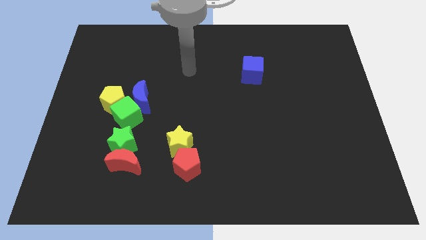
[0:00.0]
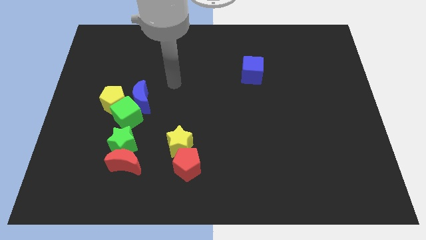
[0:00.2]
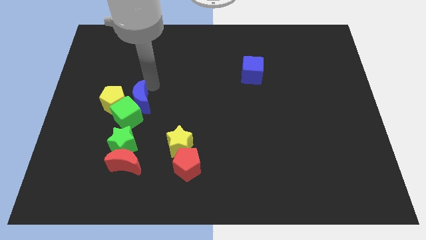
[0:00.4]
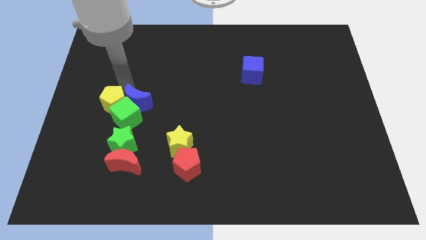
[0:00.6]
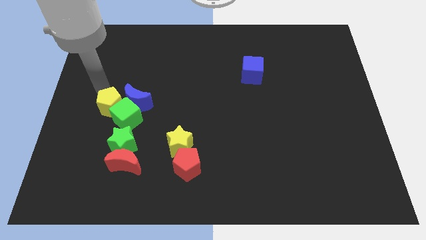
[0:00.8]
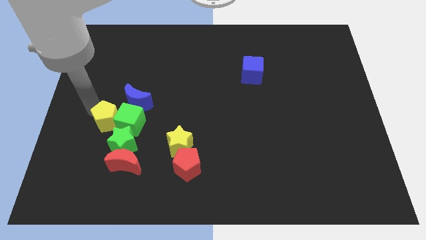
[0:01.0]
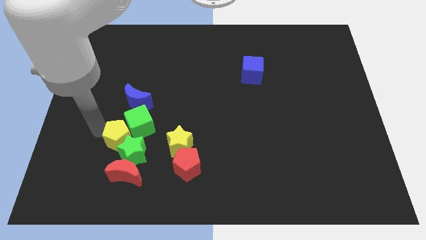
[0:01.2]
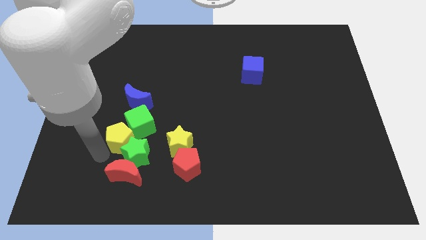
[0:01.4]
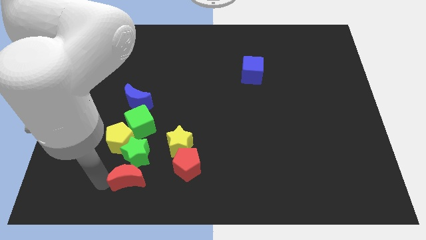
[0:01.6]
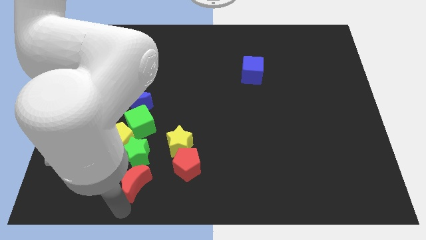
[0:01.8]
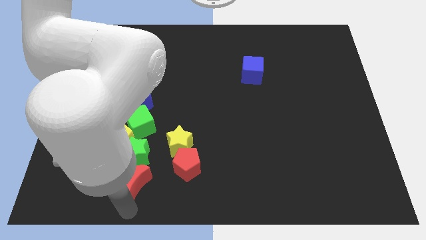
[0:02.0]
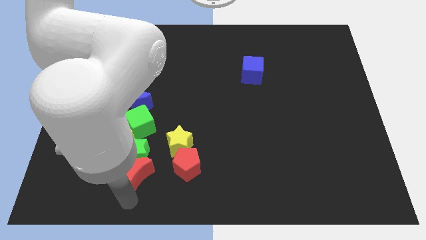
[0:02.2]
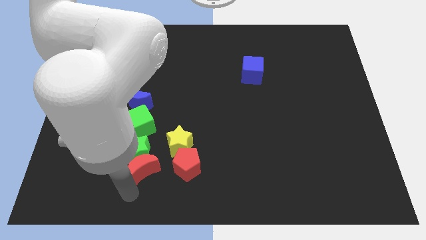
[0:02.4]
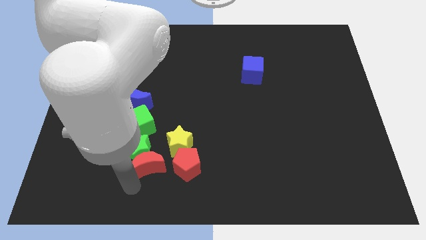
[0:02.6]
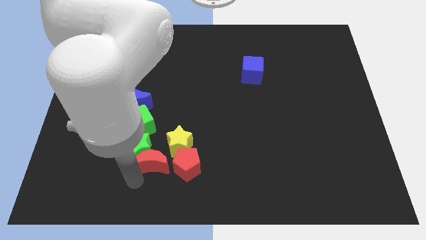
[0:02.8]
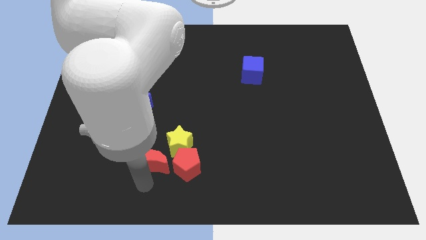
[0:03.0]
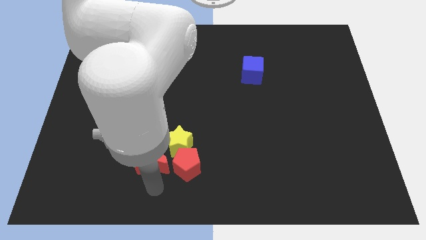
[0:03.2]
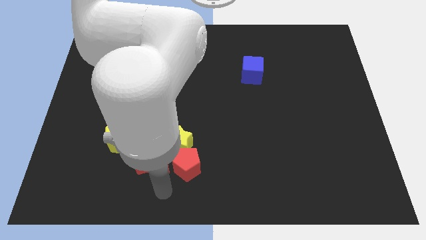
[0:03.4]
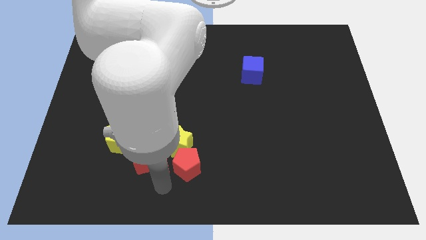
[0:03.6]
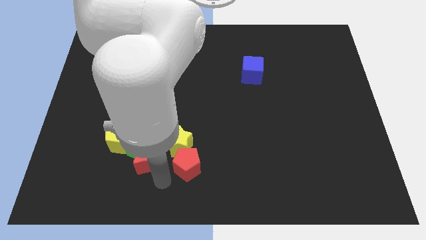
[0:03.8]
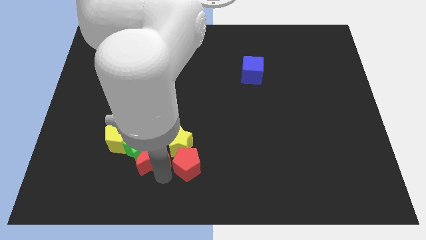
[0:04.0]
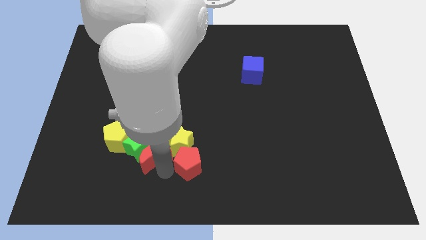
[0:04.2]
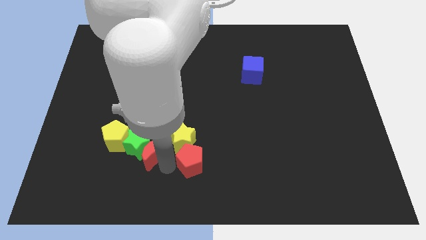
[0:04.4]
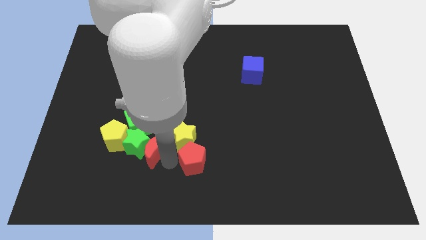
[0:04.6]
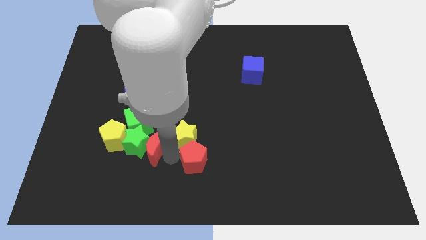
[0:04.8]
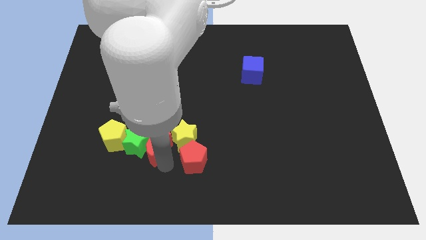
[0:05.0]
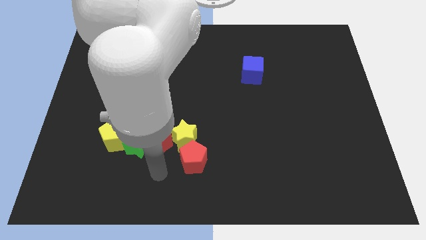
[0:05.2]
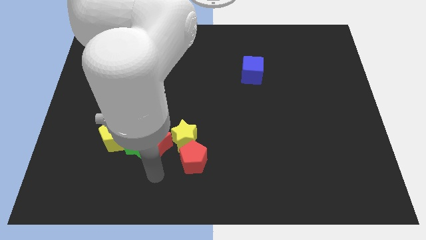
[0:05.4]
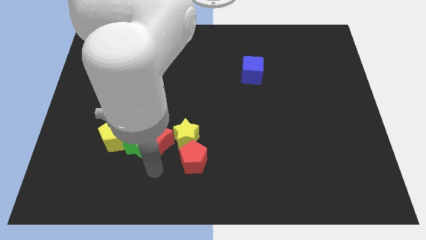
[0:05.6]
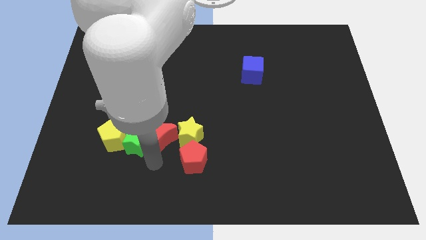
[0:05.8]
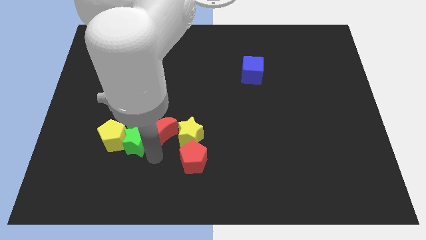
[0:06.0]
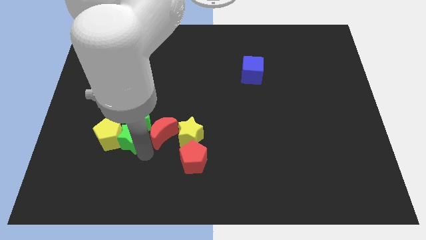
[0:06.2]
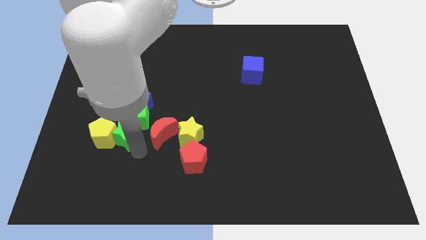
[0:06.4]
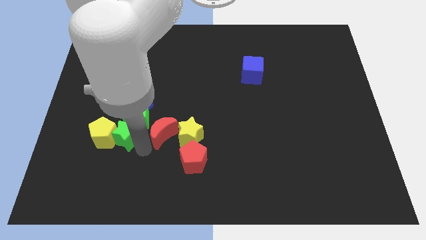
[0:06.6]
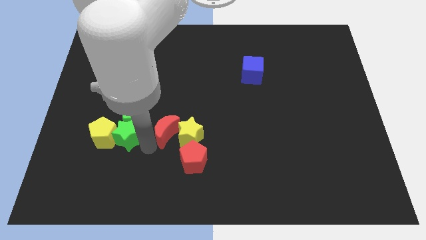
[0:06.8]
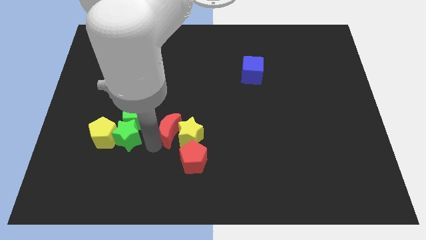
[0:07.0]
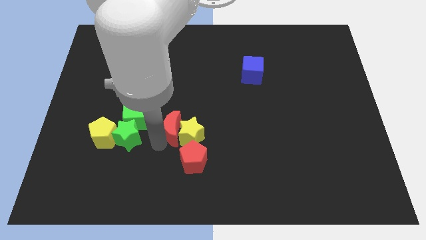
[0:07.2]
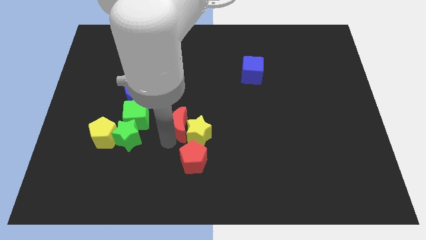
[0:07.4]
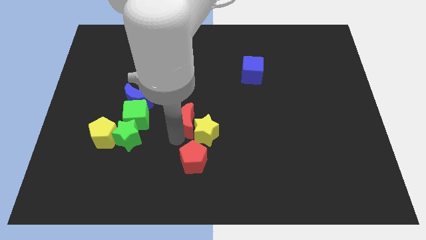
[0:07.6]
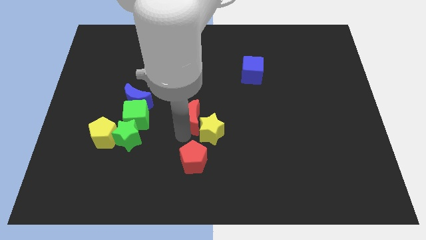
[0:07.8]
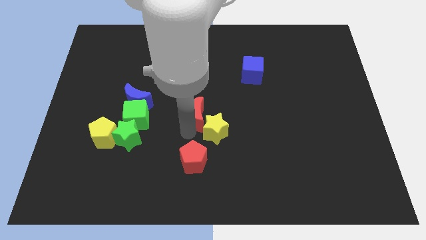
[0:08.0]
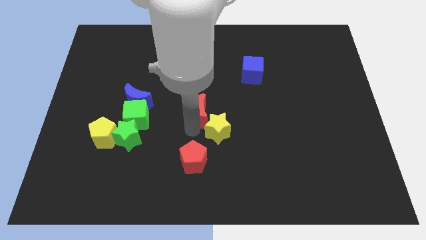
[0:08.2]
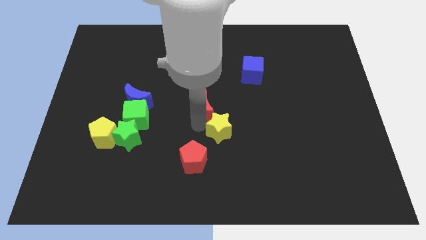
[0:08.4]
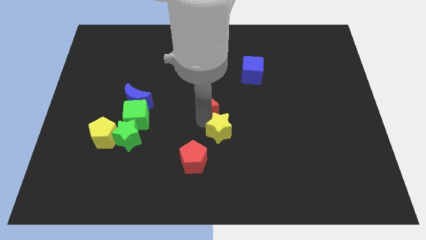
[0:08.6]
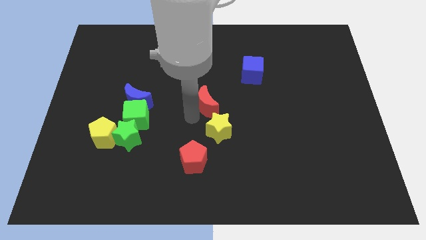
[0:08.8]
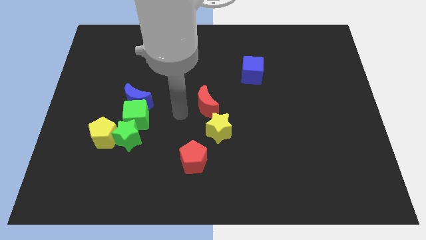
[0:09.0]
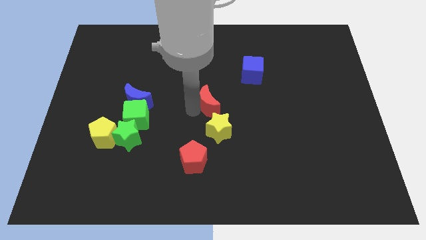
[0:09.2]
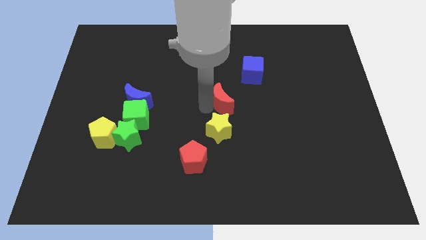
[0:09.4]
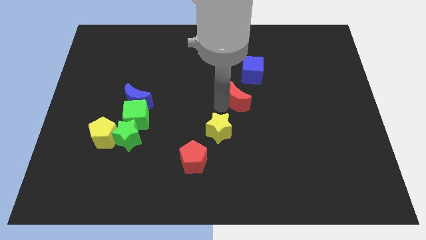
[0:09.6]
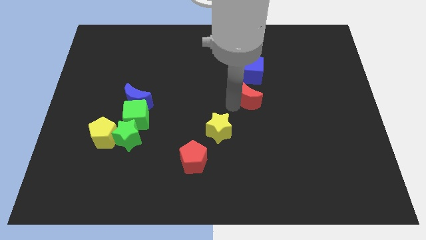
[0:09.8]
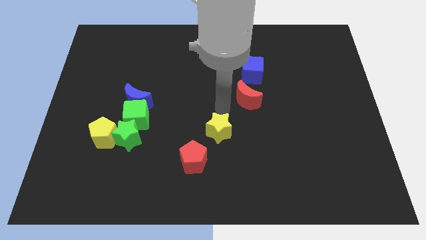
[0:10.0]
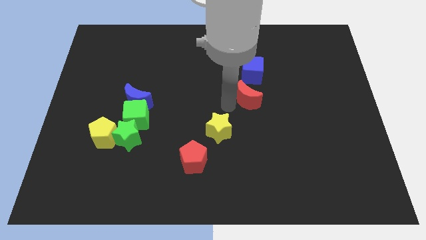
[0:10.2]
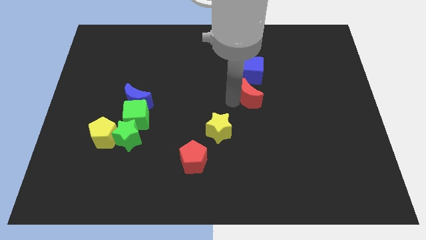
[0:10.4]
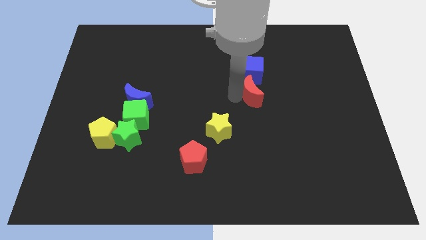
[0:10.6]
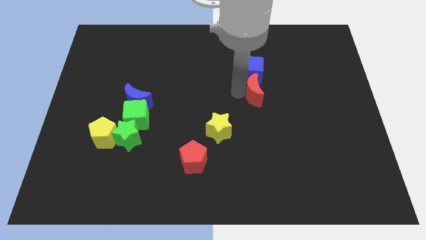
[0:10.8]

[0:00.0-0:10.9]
push the red moon diagonally down and to the right of the blue cube

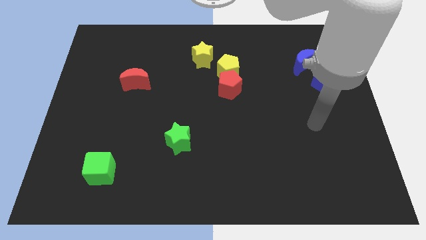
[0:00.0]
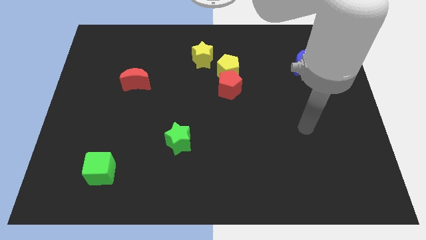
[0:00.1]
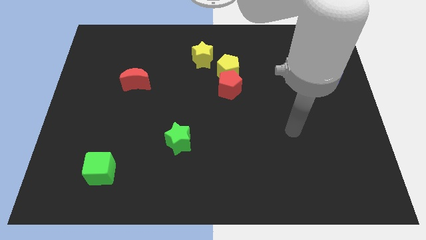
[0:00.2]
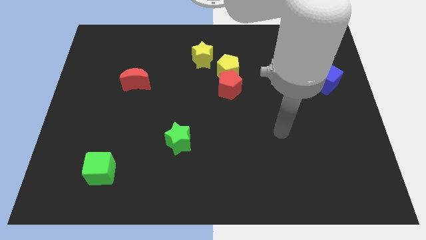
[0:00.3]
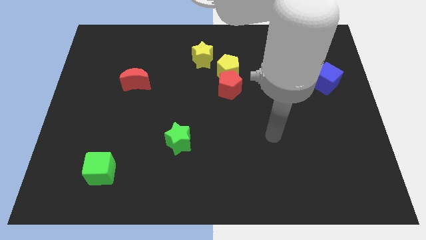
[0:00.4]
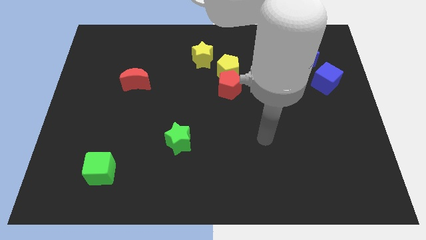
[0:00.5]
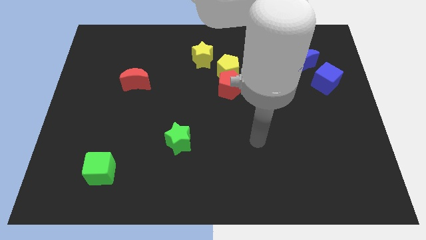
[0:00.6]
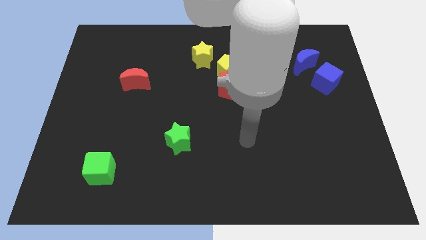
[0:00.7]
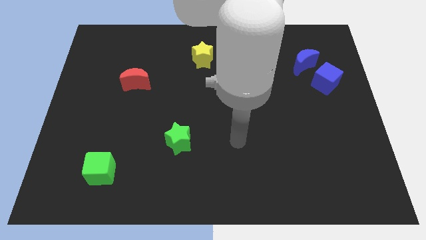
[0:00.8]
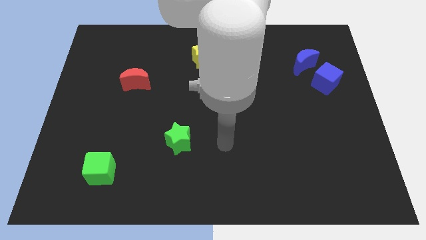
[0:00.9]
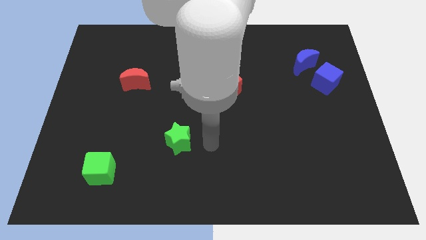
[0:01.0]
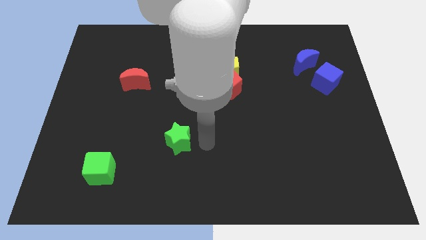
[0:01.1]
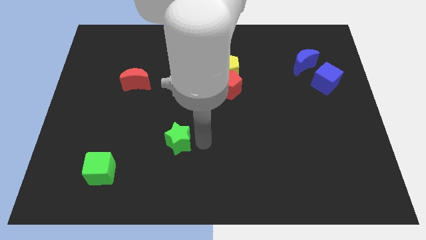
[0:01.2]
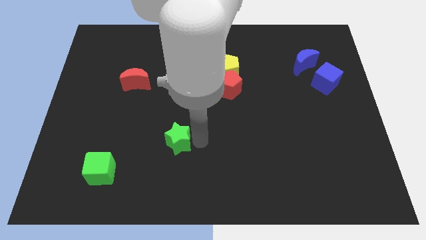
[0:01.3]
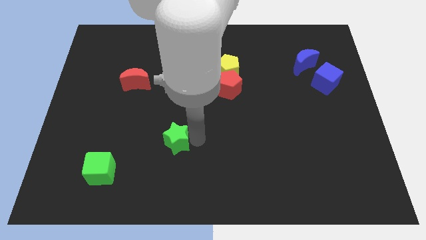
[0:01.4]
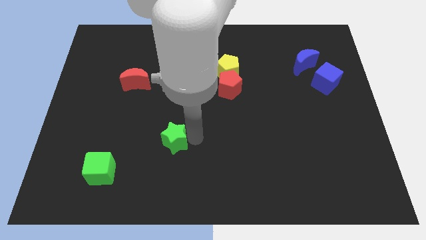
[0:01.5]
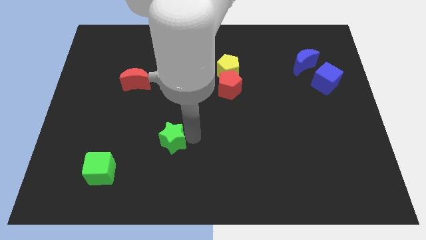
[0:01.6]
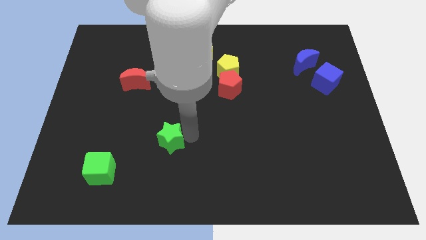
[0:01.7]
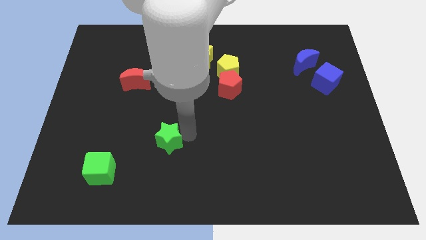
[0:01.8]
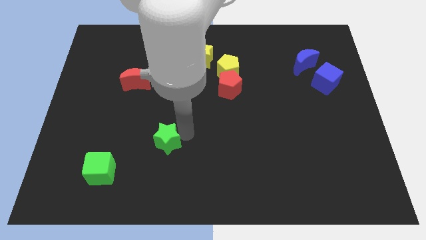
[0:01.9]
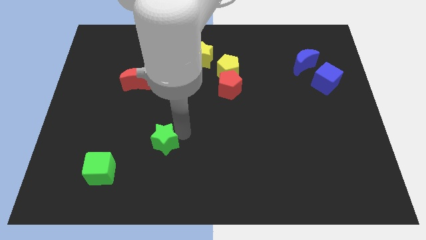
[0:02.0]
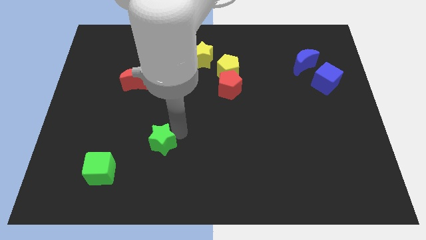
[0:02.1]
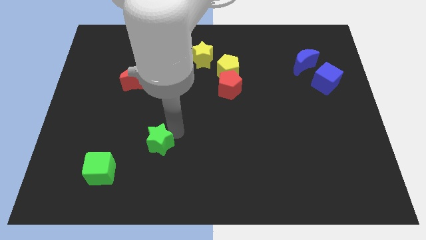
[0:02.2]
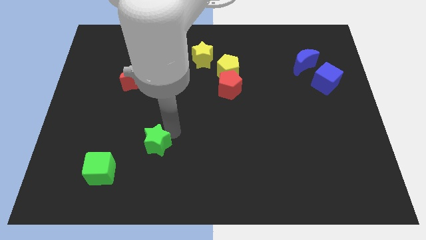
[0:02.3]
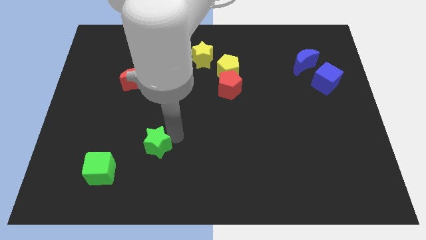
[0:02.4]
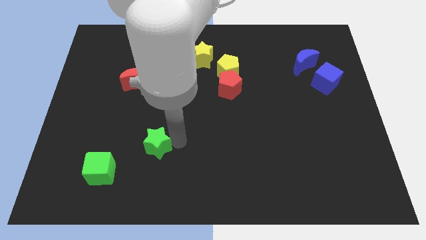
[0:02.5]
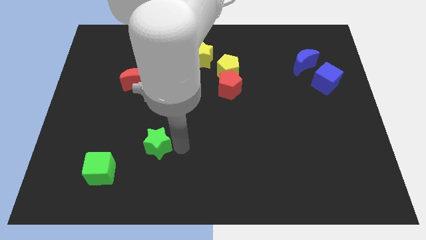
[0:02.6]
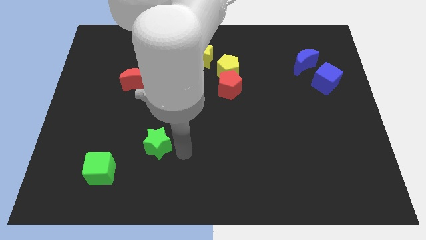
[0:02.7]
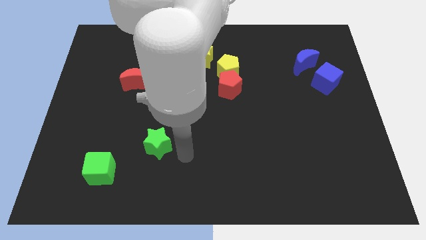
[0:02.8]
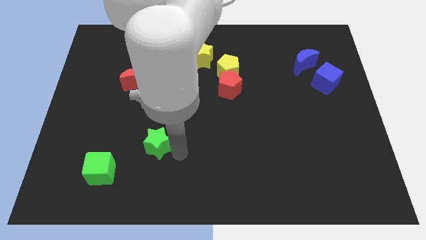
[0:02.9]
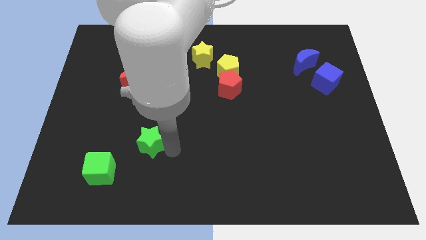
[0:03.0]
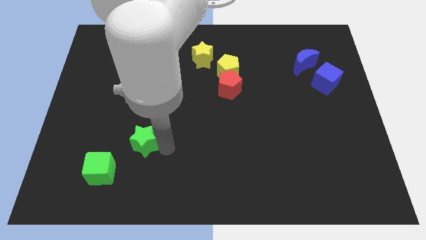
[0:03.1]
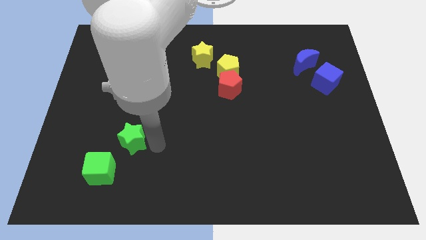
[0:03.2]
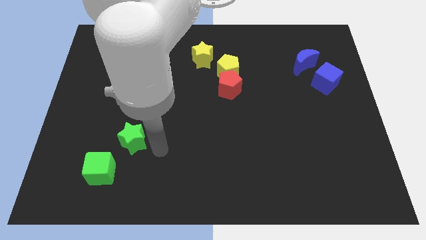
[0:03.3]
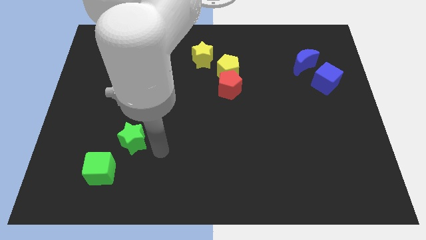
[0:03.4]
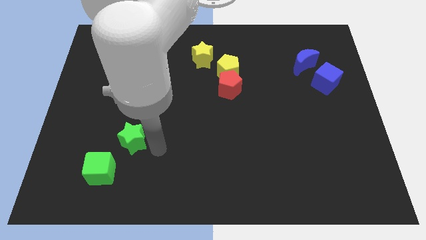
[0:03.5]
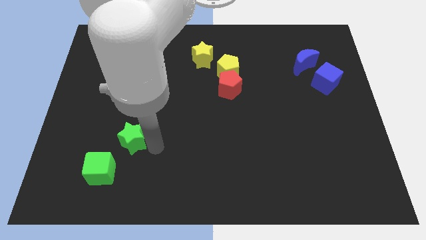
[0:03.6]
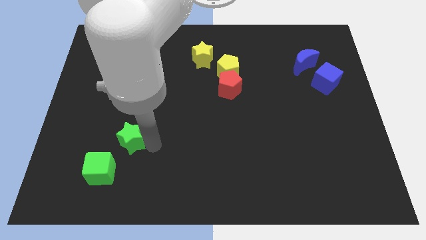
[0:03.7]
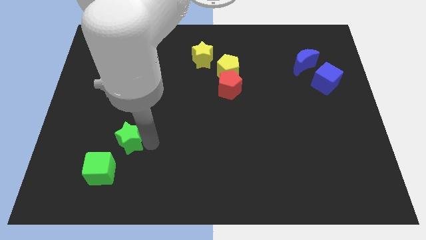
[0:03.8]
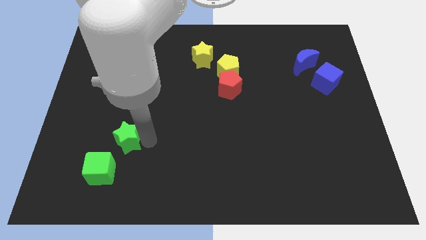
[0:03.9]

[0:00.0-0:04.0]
move the green star above the green cube
